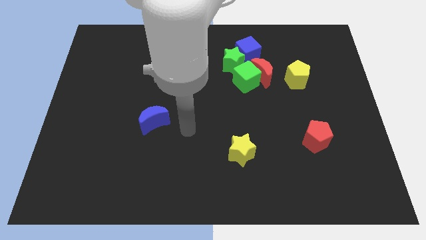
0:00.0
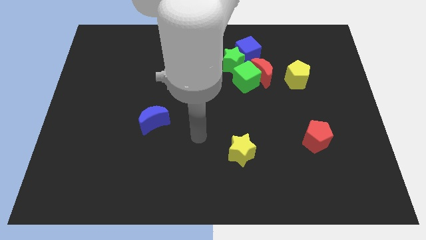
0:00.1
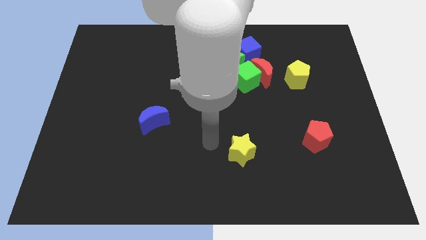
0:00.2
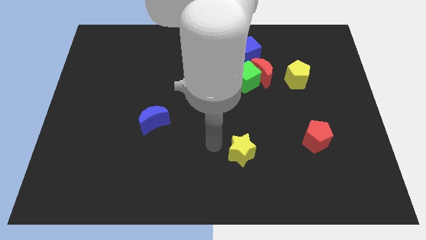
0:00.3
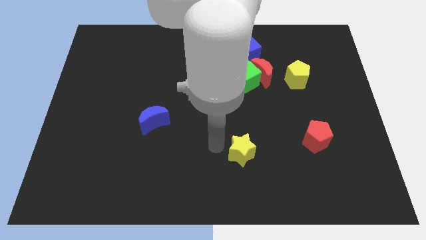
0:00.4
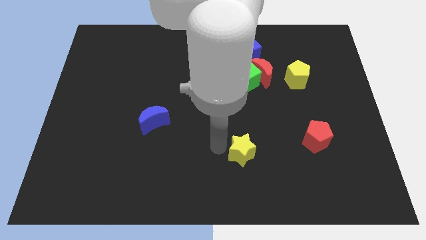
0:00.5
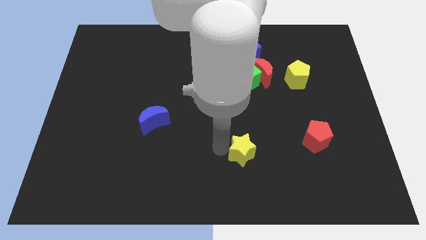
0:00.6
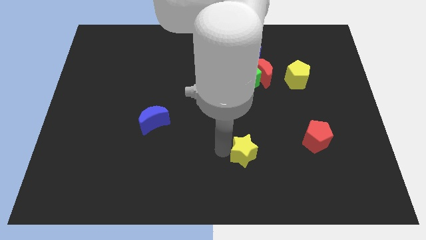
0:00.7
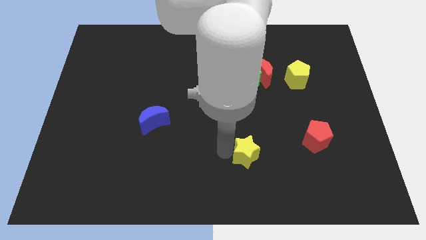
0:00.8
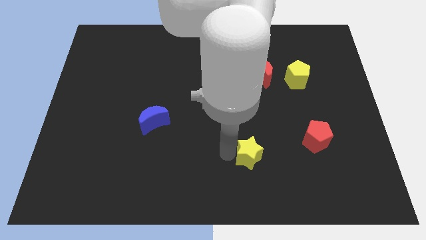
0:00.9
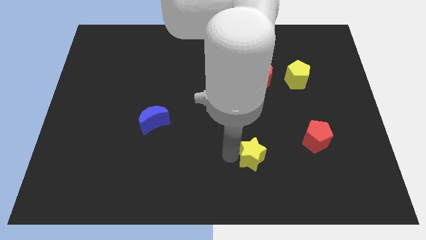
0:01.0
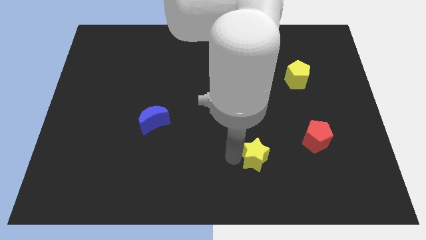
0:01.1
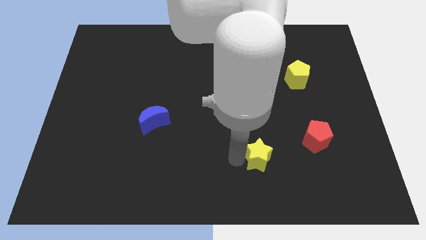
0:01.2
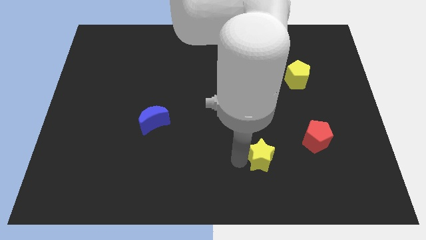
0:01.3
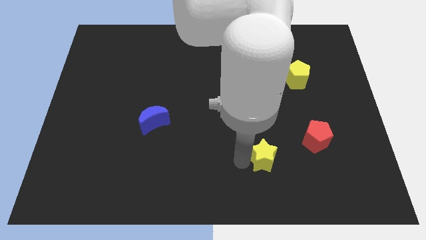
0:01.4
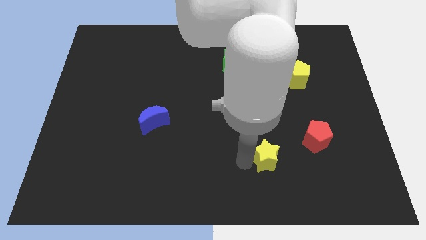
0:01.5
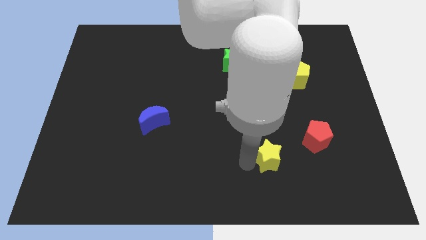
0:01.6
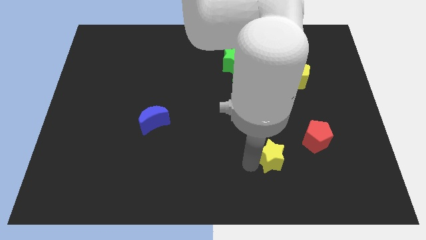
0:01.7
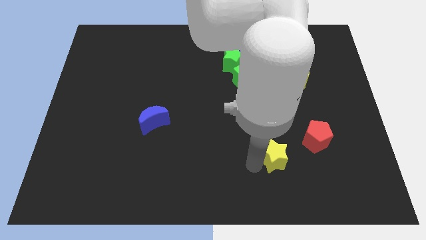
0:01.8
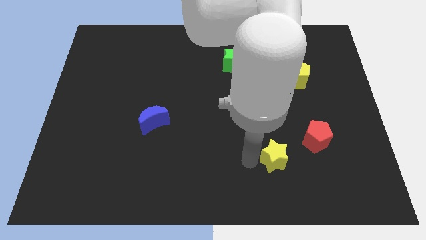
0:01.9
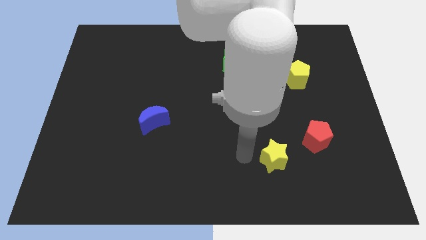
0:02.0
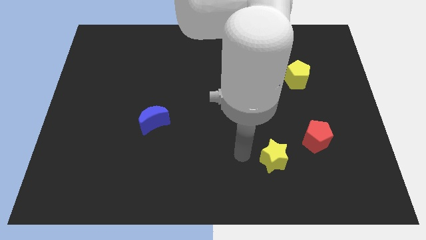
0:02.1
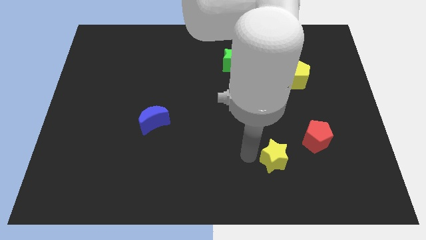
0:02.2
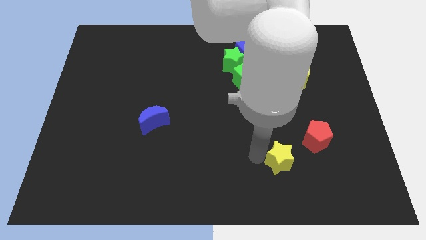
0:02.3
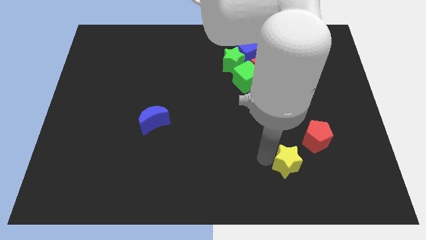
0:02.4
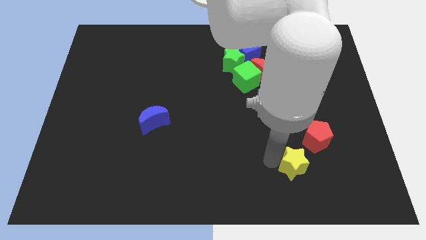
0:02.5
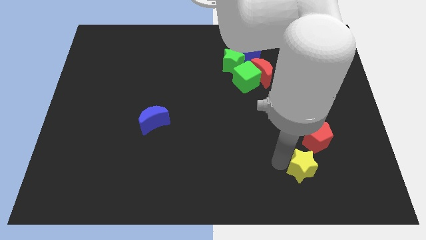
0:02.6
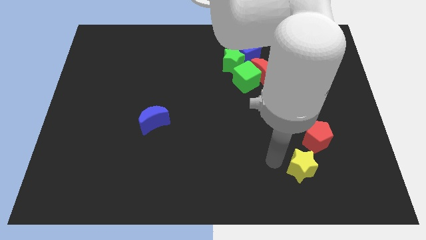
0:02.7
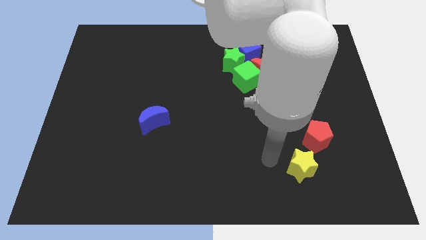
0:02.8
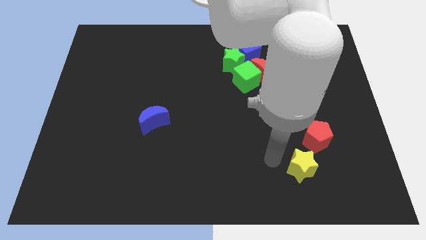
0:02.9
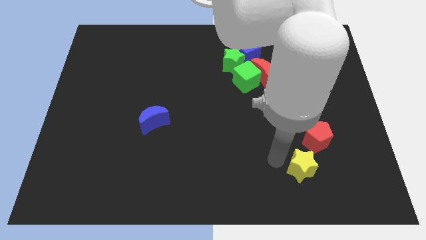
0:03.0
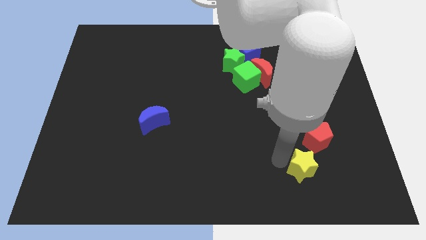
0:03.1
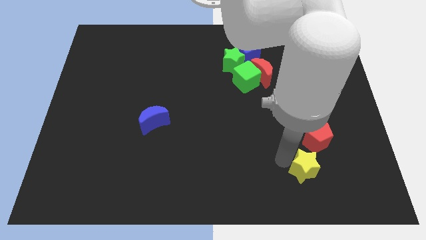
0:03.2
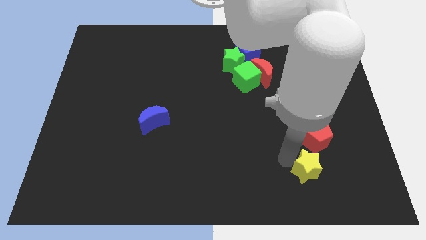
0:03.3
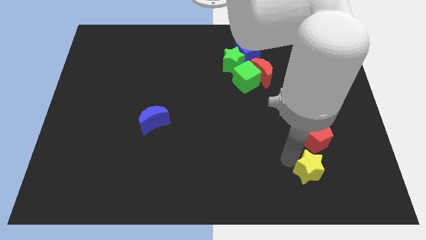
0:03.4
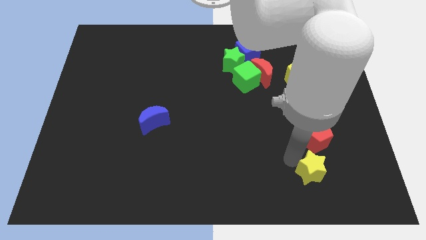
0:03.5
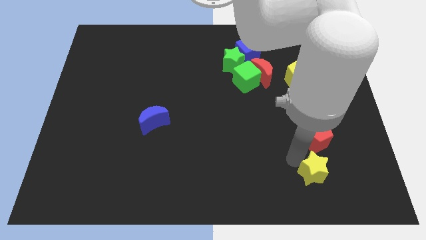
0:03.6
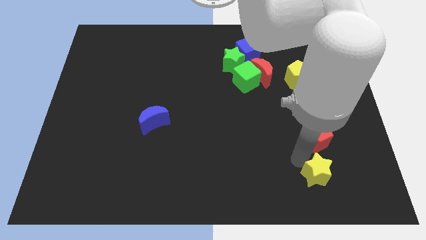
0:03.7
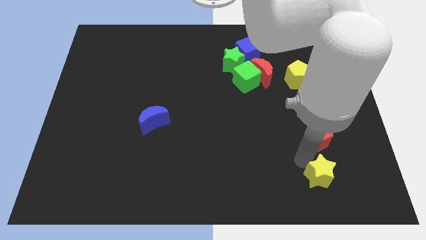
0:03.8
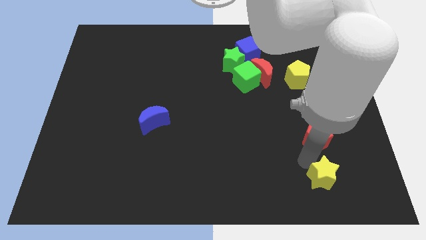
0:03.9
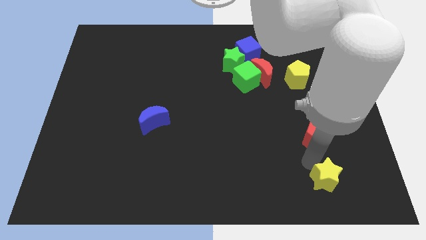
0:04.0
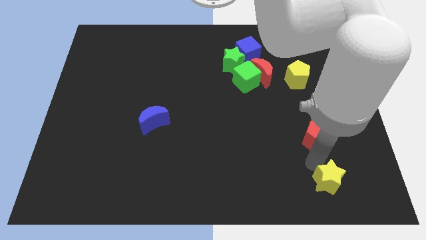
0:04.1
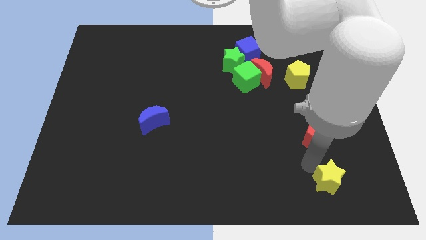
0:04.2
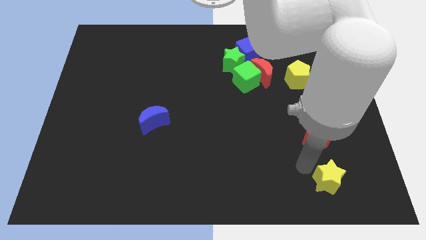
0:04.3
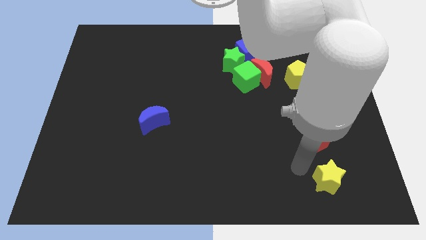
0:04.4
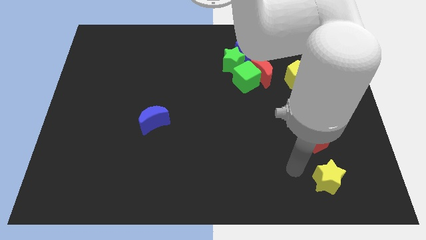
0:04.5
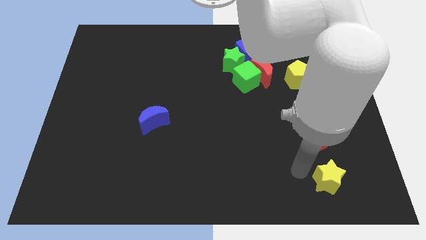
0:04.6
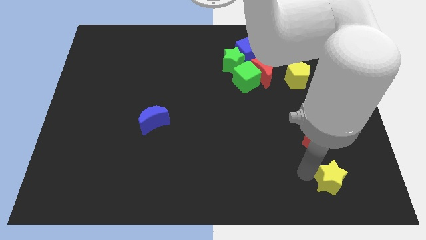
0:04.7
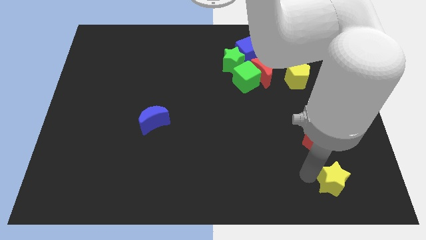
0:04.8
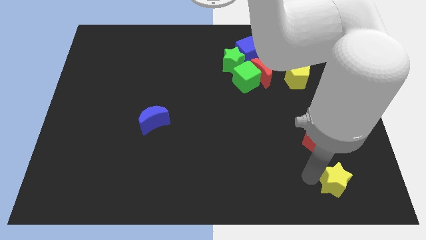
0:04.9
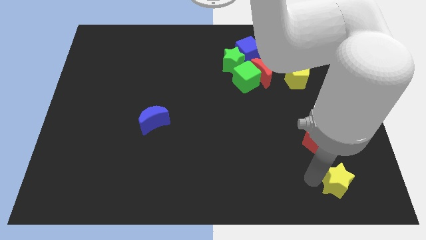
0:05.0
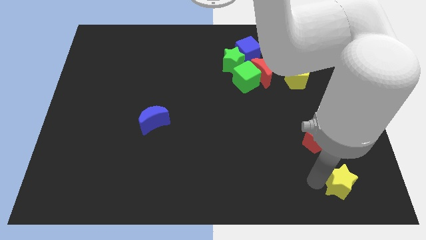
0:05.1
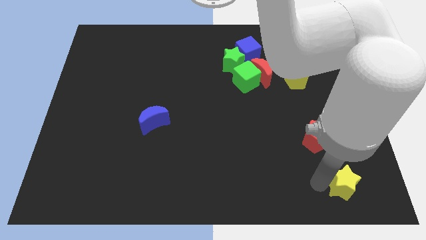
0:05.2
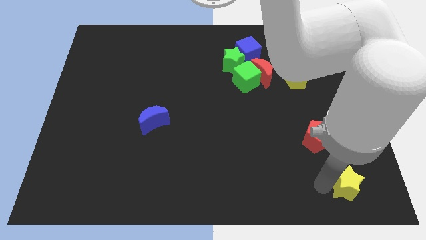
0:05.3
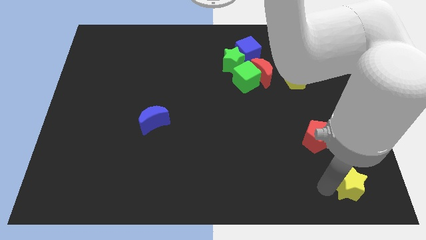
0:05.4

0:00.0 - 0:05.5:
push the yellow star to the bottom right of the board

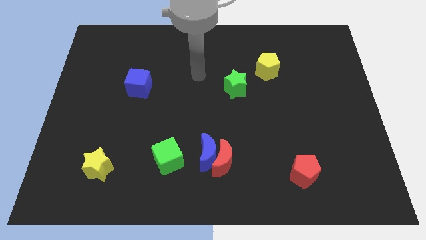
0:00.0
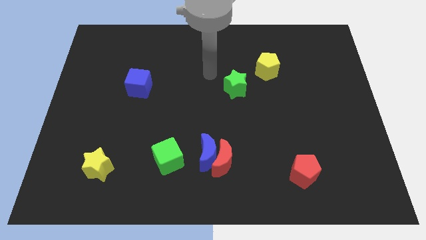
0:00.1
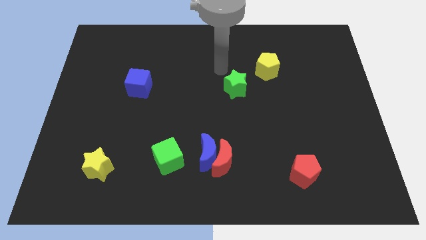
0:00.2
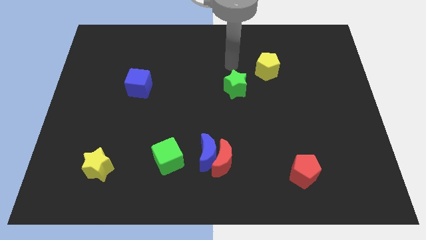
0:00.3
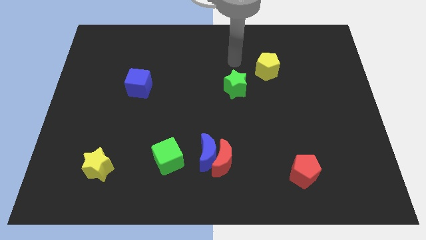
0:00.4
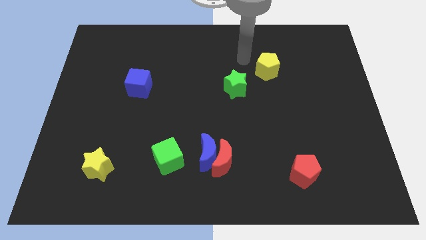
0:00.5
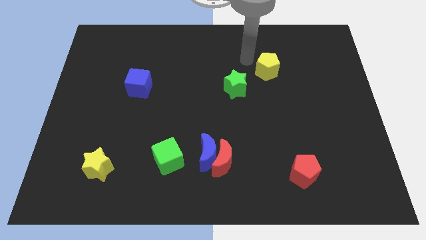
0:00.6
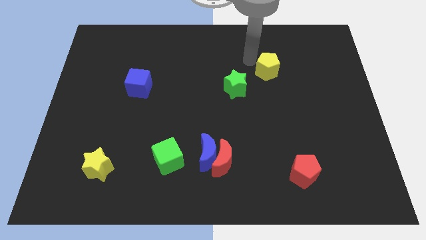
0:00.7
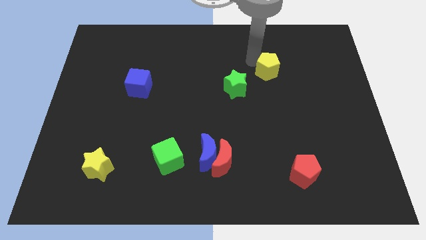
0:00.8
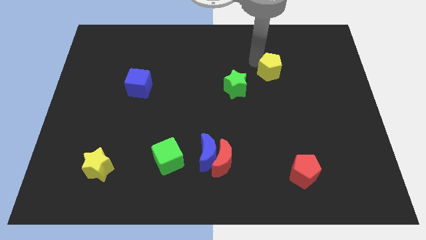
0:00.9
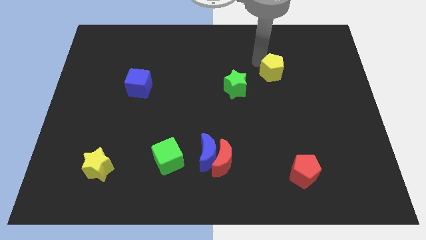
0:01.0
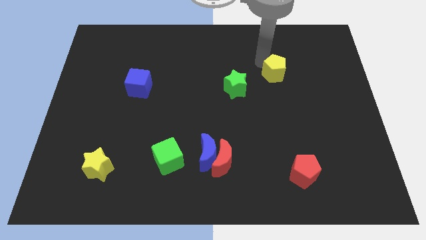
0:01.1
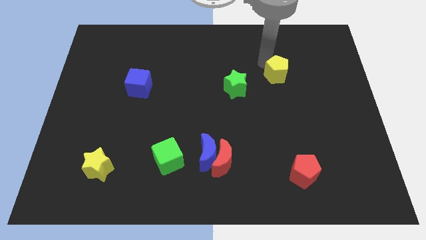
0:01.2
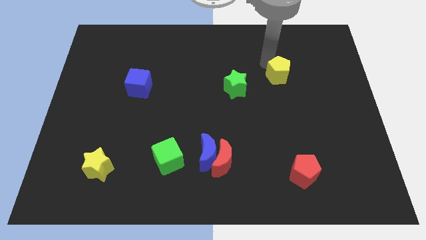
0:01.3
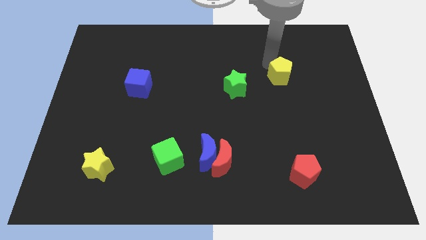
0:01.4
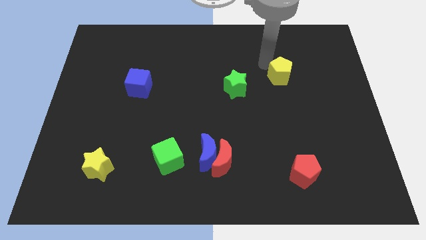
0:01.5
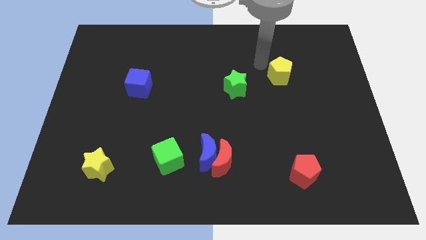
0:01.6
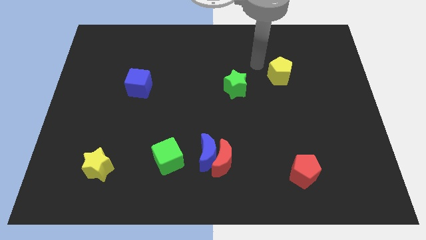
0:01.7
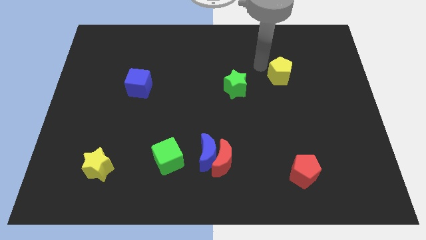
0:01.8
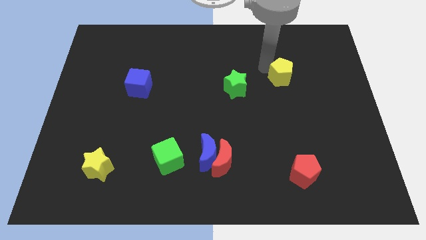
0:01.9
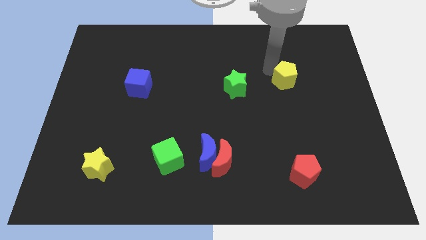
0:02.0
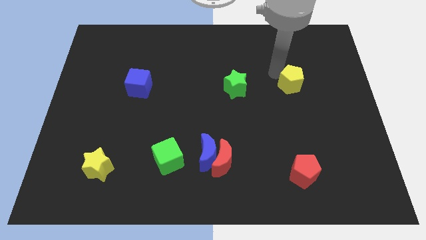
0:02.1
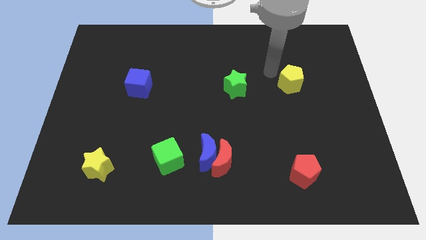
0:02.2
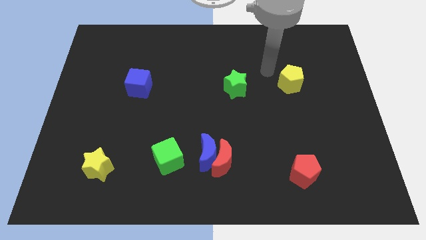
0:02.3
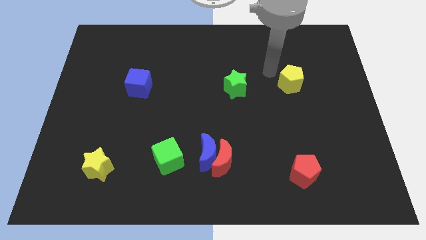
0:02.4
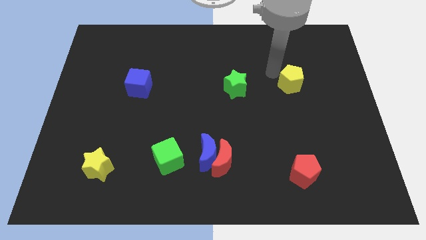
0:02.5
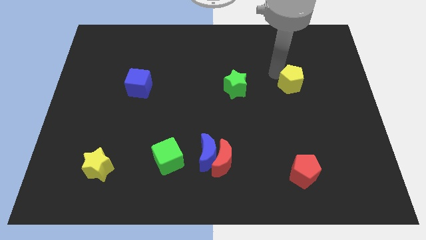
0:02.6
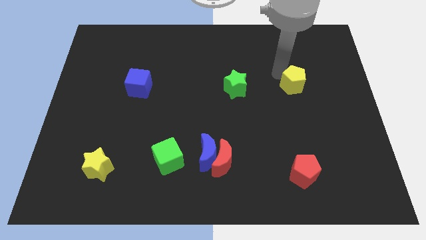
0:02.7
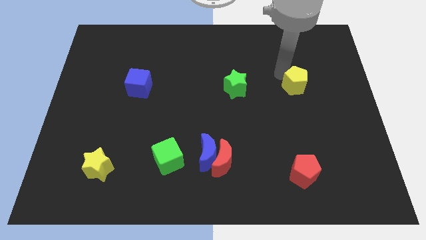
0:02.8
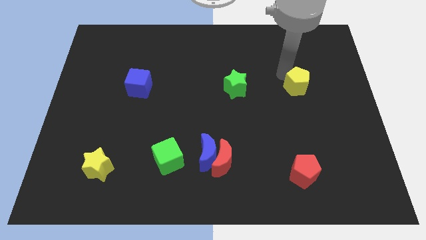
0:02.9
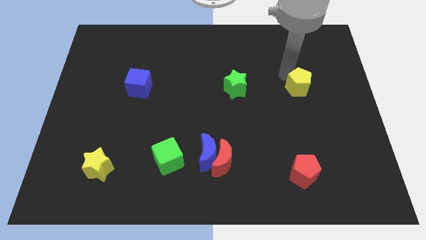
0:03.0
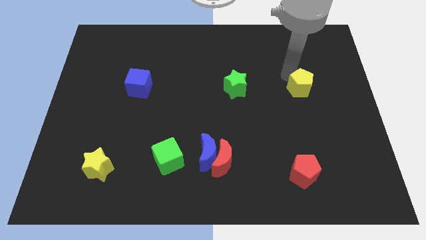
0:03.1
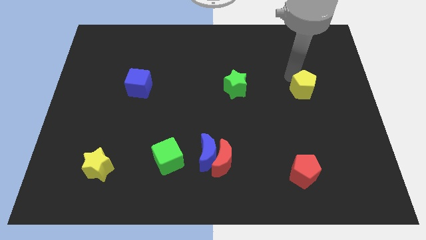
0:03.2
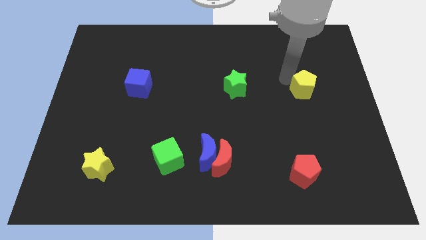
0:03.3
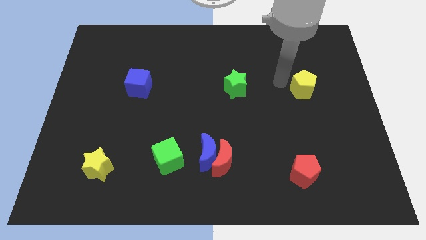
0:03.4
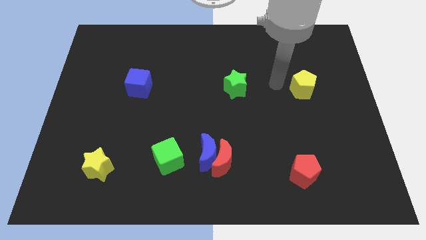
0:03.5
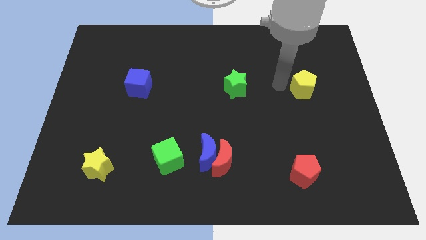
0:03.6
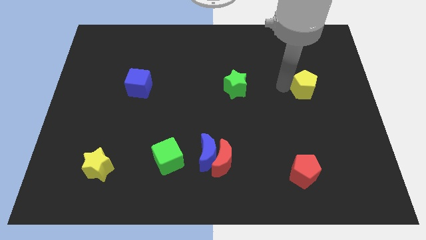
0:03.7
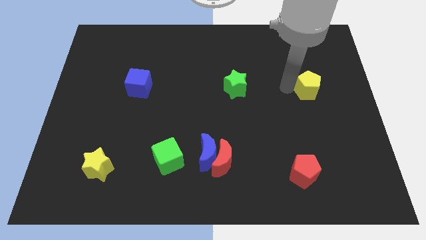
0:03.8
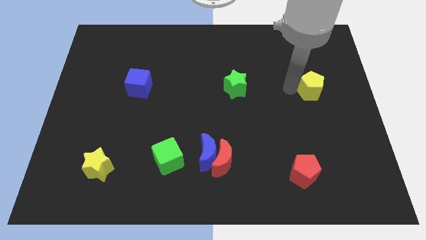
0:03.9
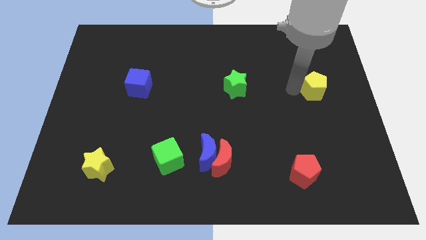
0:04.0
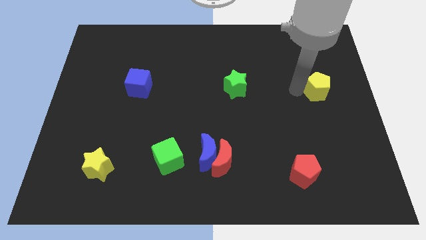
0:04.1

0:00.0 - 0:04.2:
push the yellow pentagon to the right side
